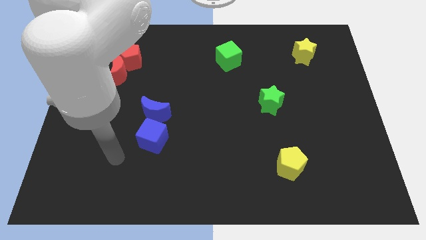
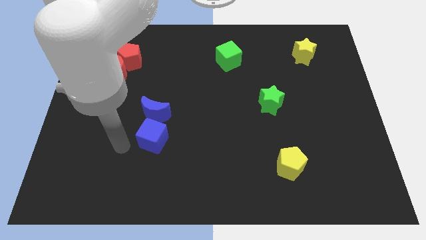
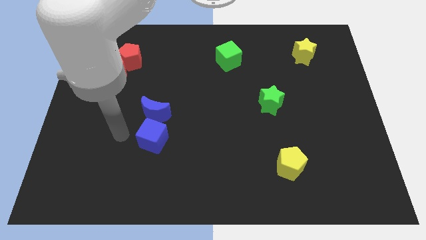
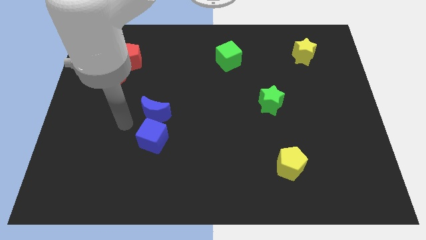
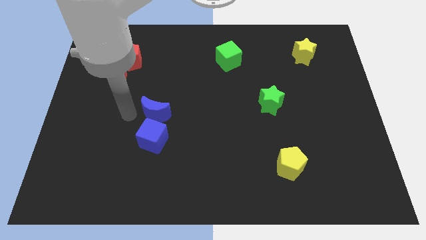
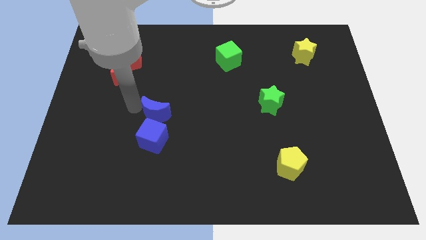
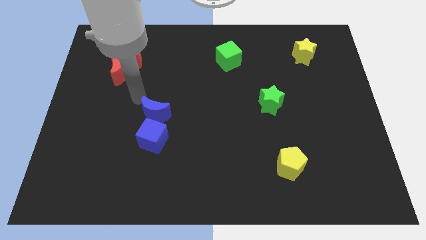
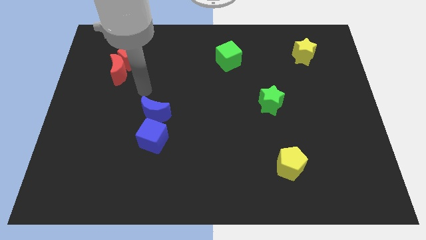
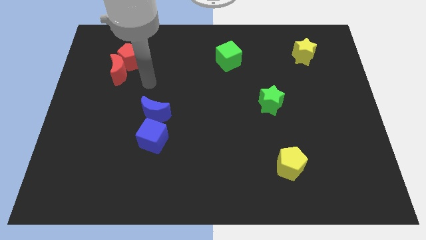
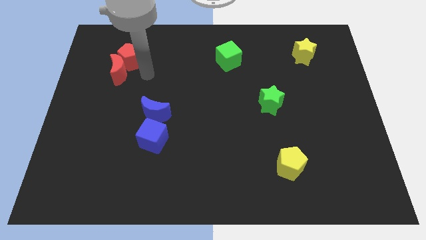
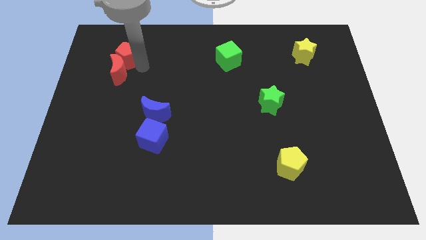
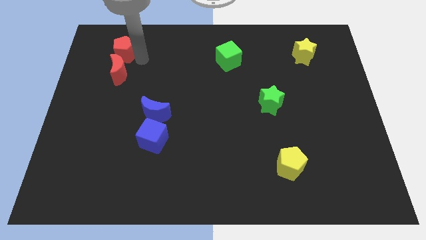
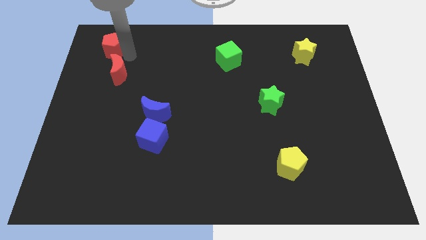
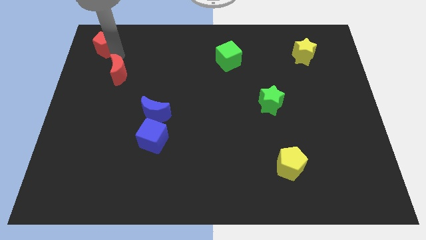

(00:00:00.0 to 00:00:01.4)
move the red moon away from the red pentagon

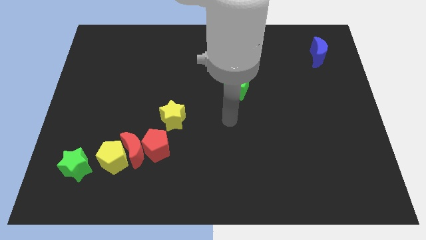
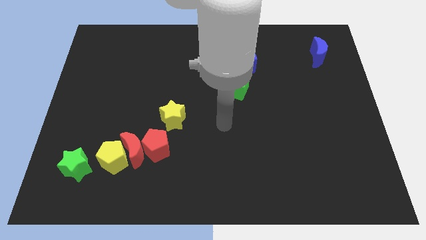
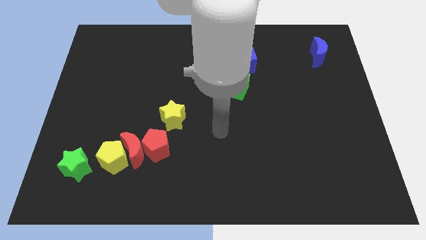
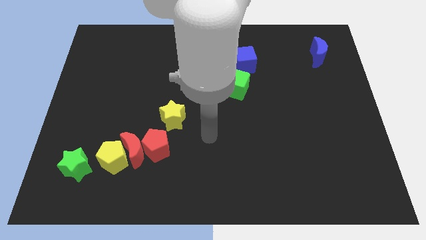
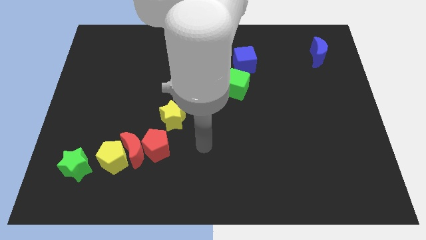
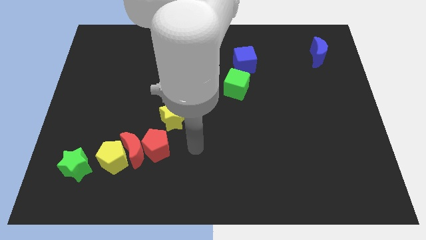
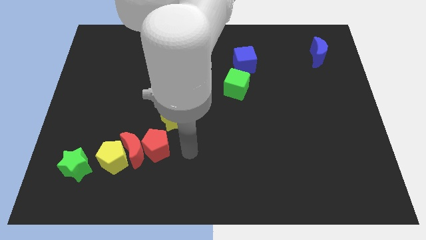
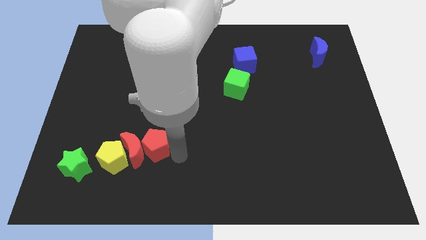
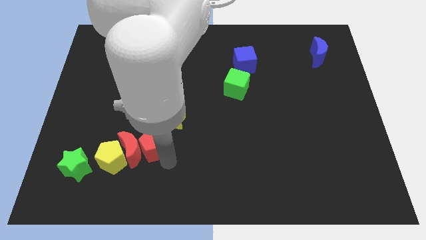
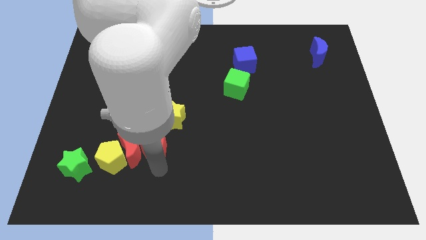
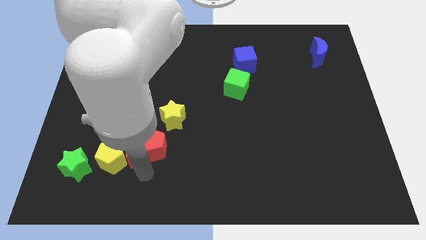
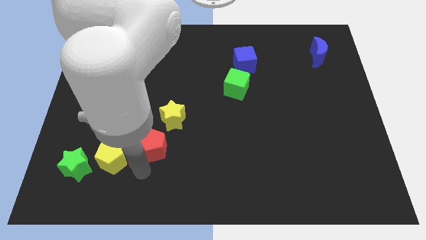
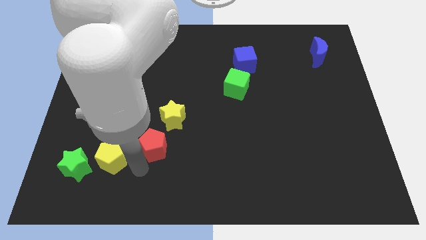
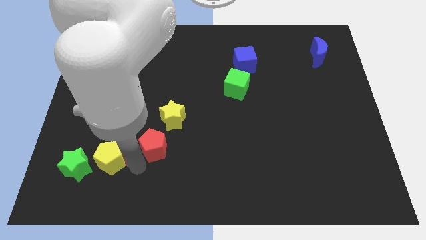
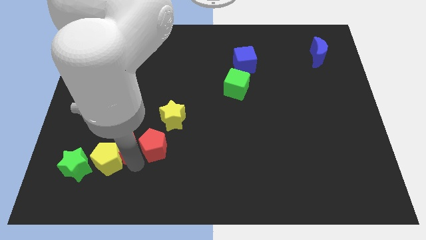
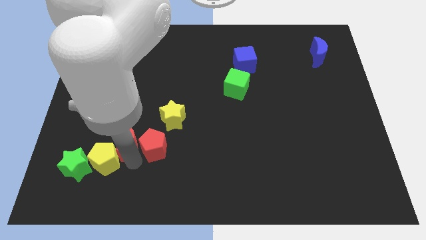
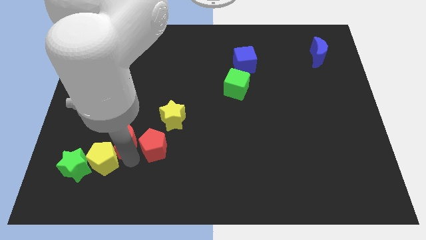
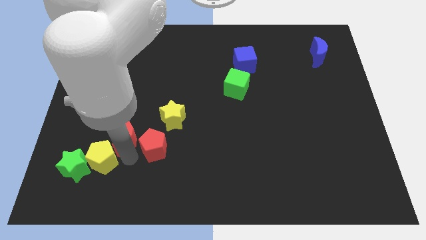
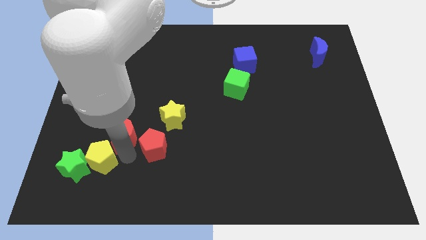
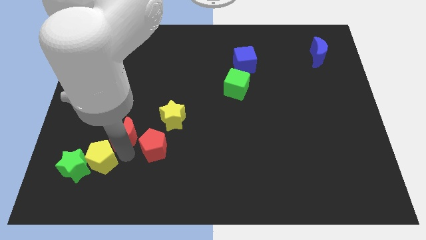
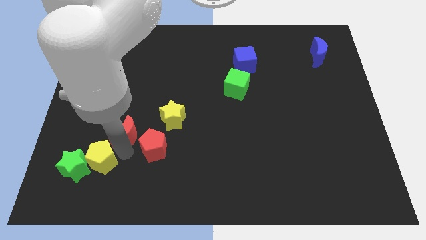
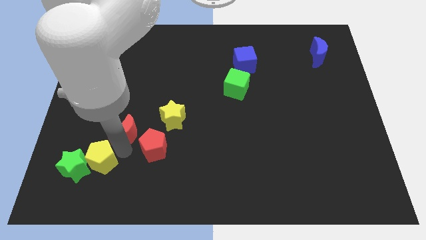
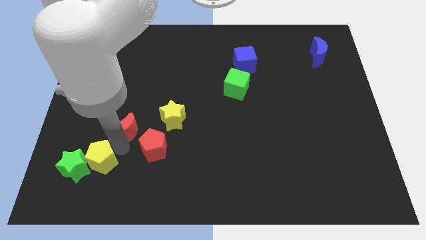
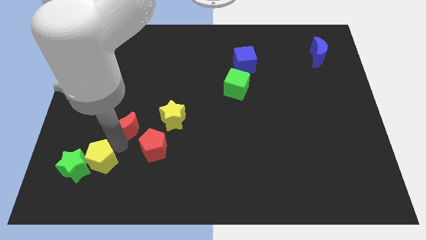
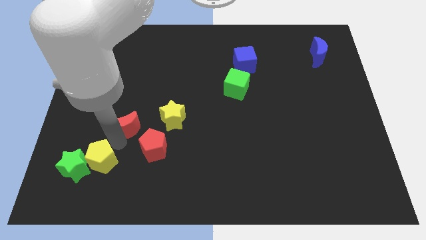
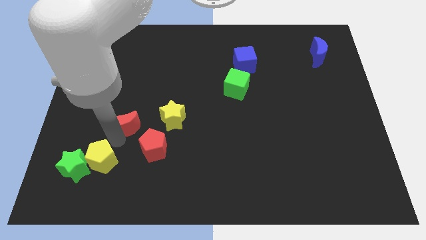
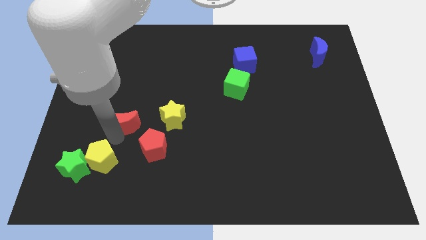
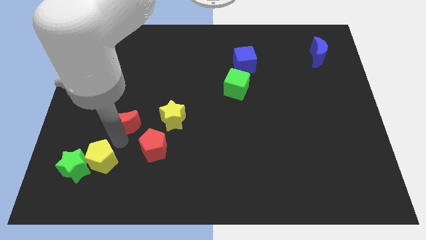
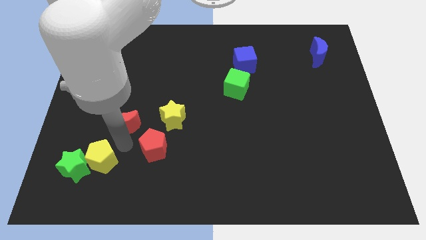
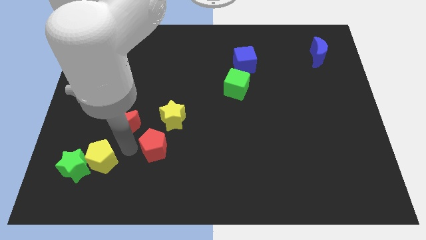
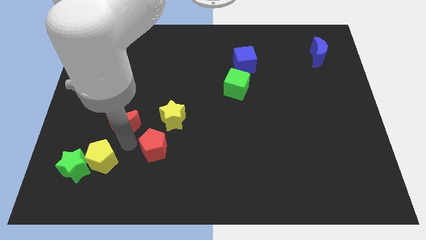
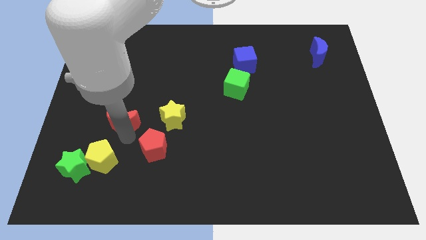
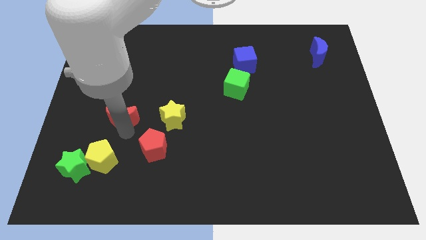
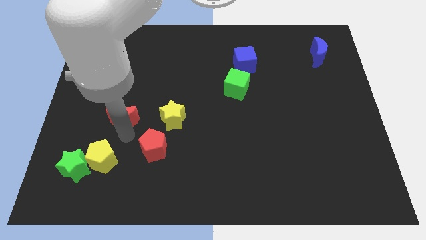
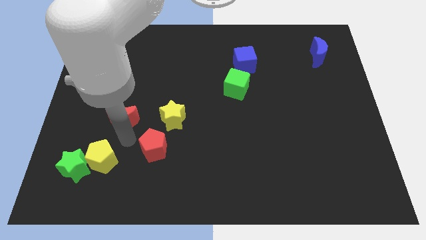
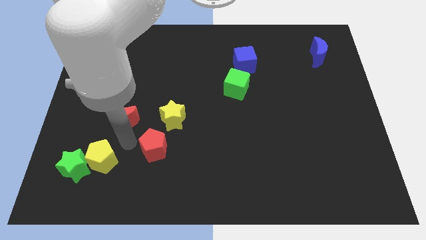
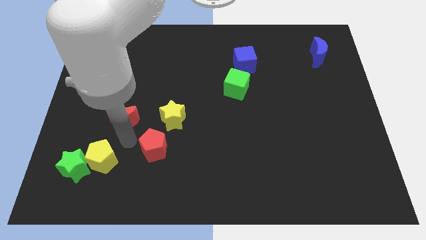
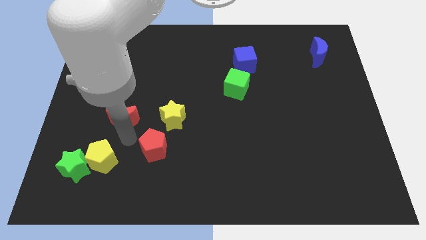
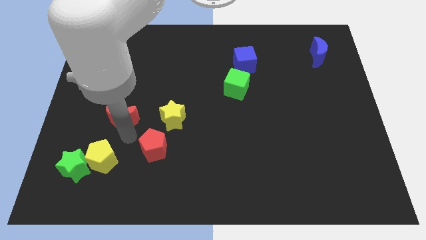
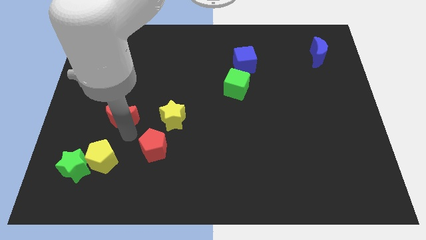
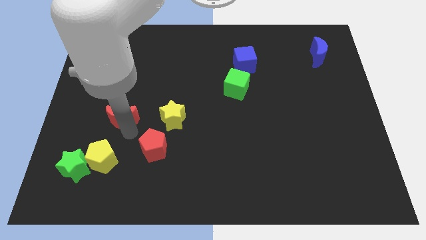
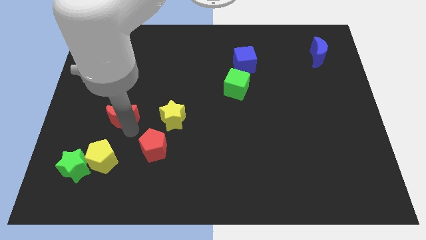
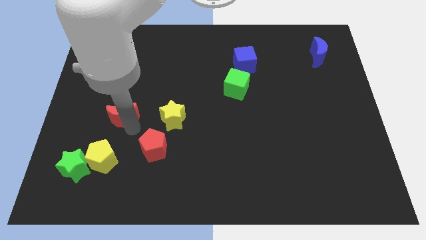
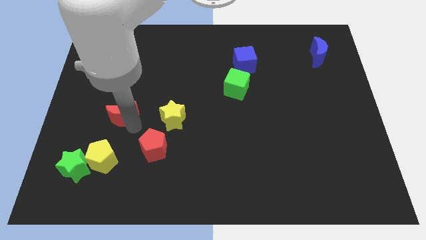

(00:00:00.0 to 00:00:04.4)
move the red moon away from the yellow pentagon and red pentagon

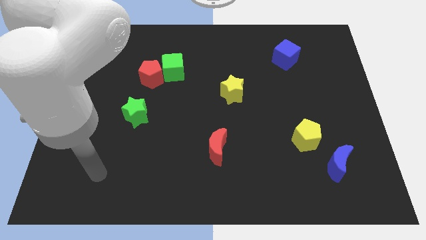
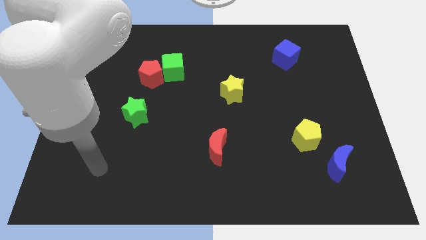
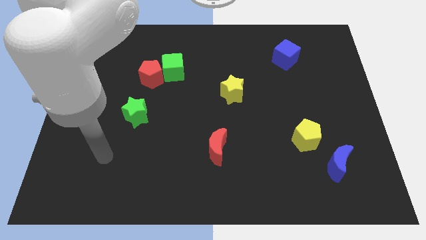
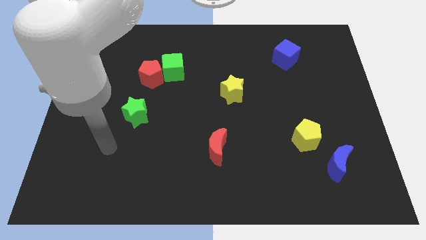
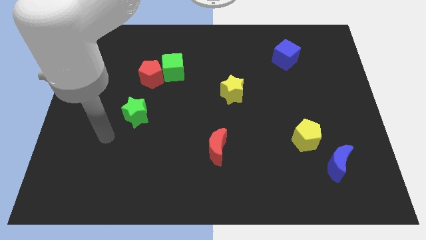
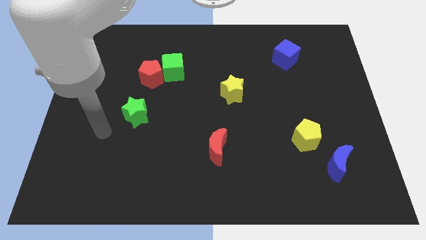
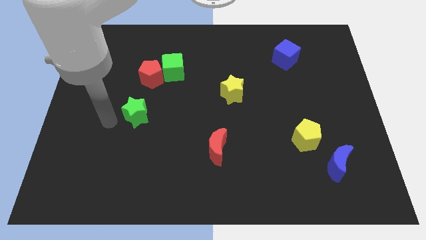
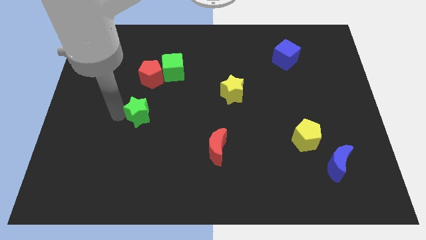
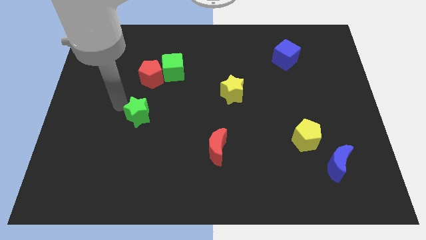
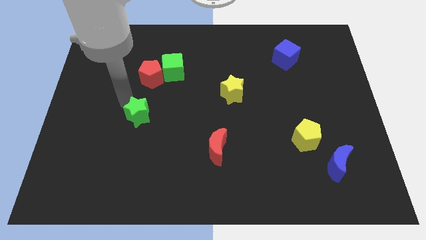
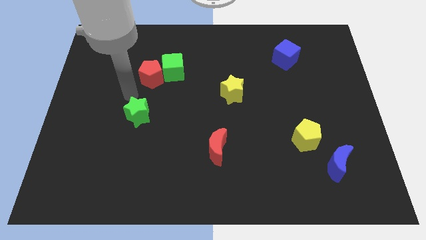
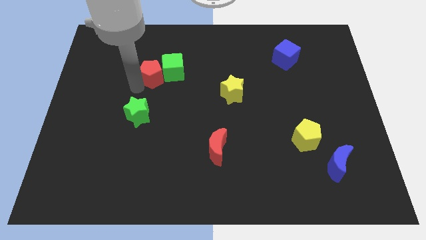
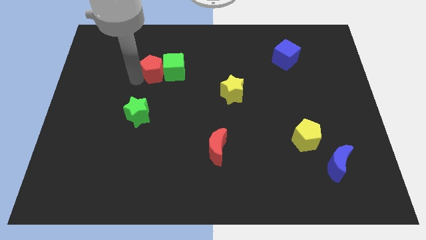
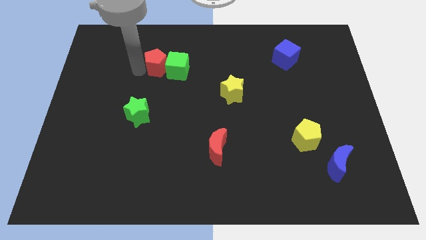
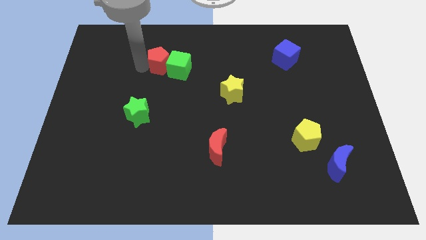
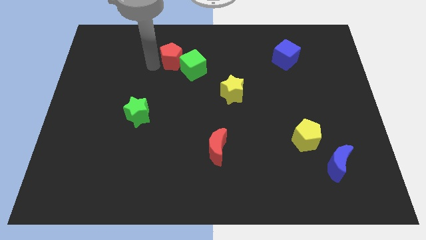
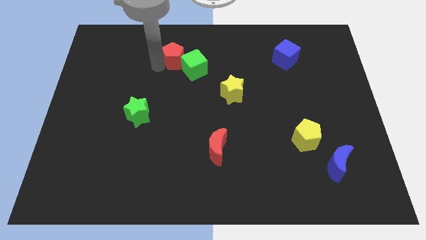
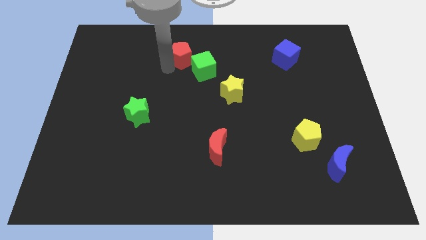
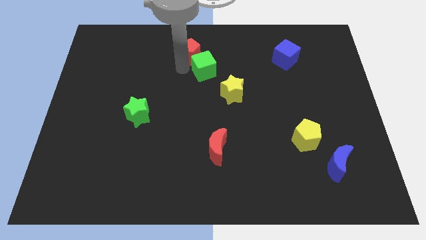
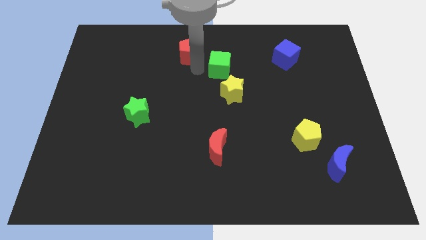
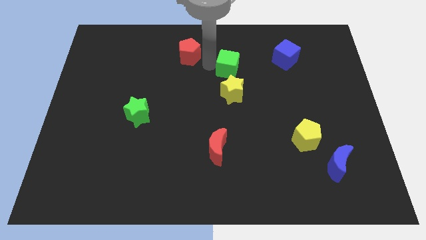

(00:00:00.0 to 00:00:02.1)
separate the red pentagon from the green cube

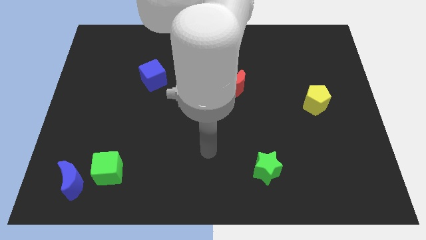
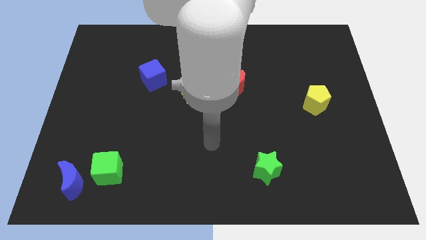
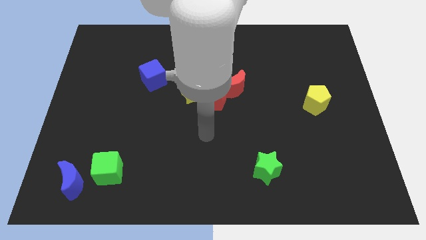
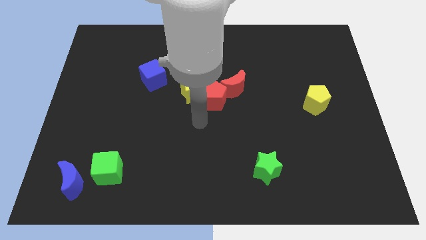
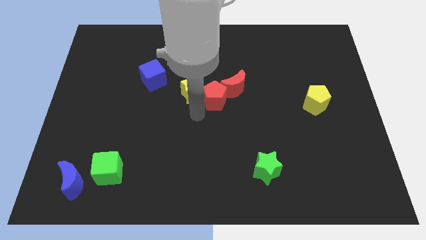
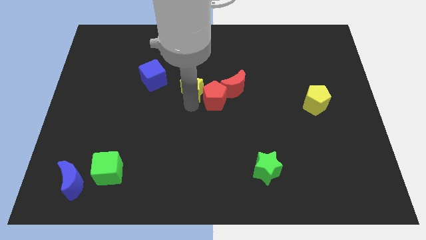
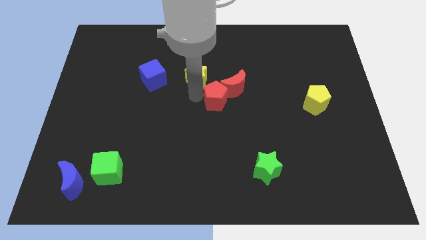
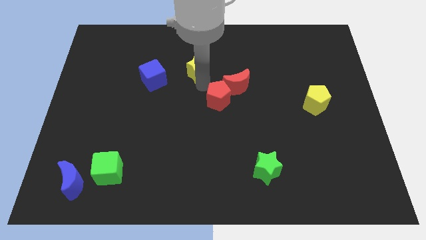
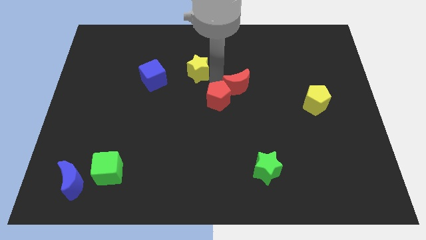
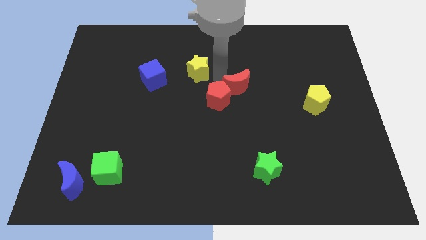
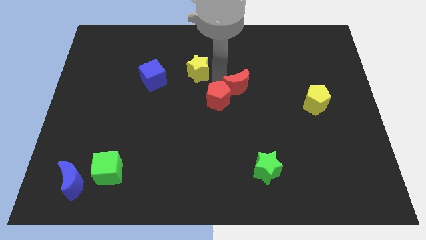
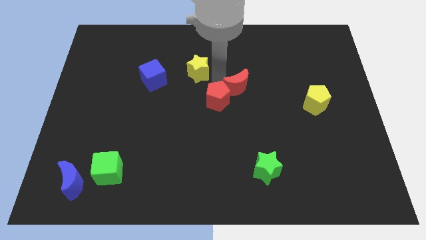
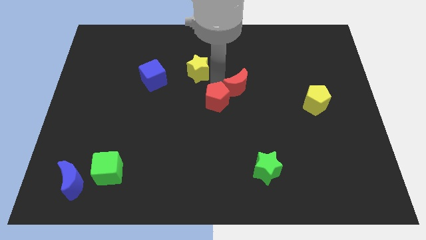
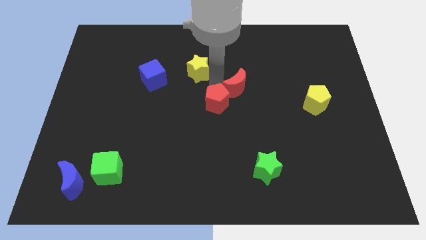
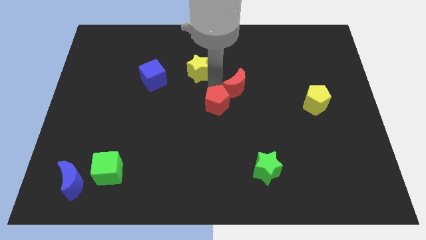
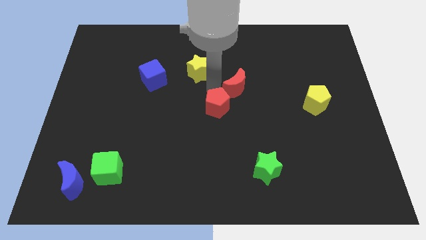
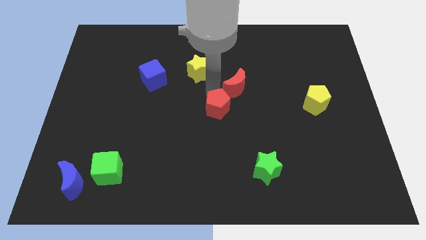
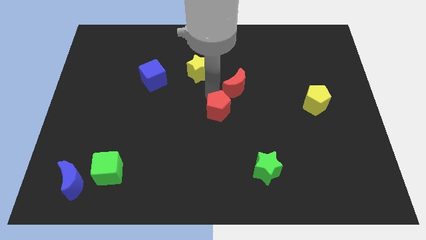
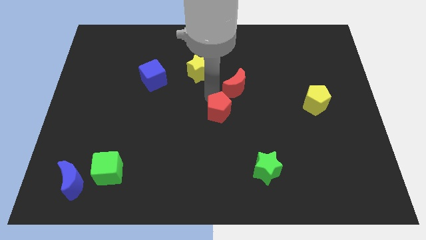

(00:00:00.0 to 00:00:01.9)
pull the red pentagon apart from the yellow star and red moon
